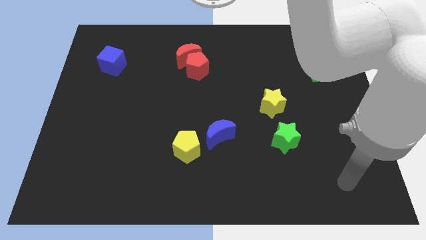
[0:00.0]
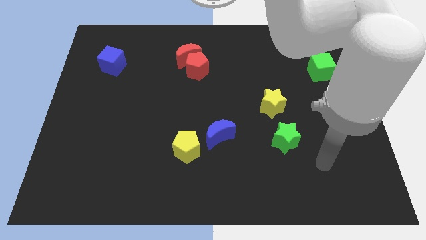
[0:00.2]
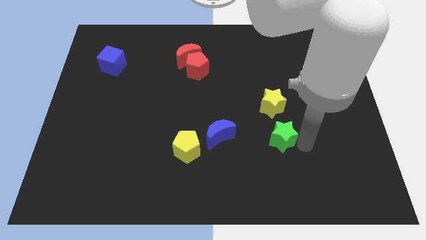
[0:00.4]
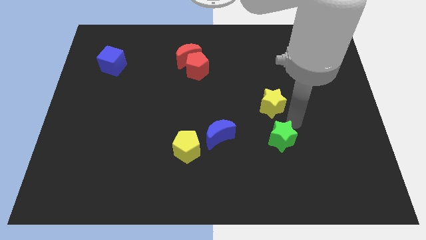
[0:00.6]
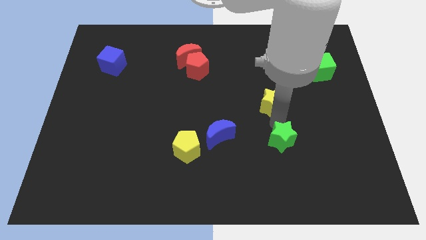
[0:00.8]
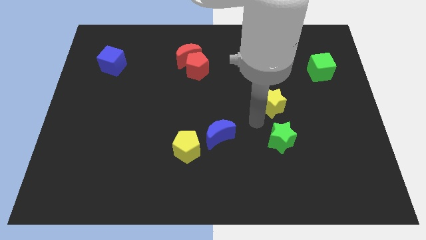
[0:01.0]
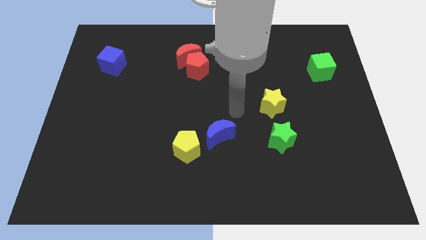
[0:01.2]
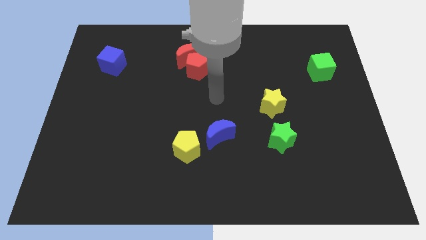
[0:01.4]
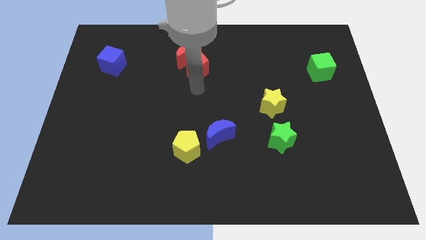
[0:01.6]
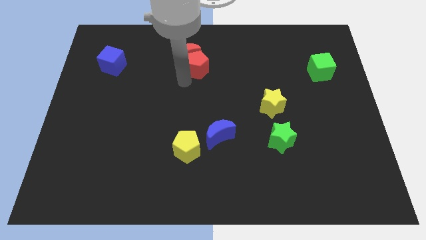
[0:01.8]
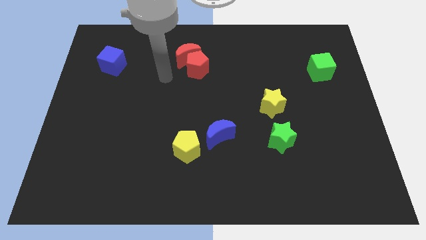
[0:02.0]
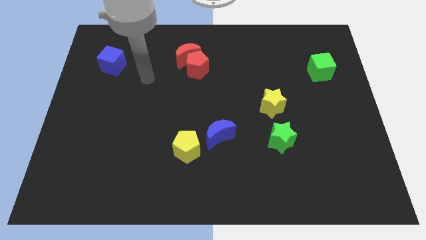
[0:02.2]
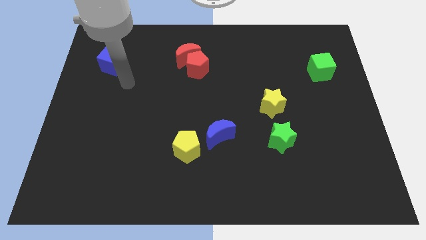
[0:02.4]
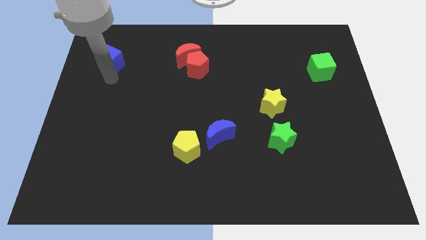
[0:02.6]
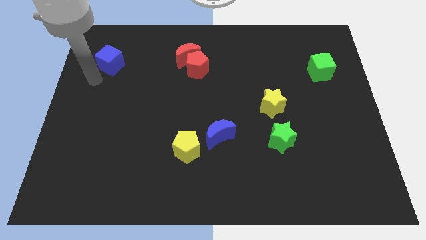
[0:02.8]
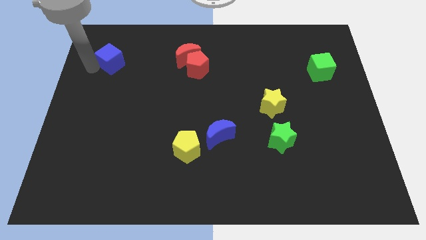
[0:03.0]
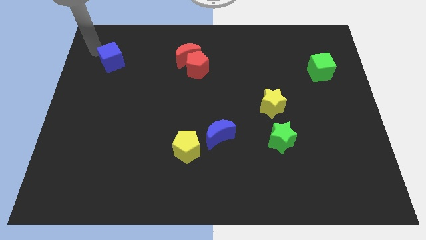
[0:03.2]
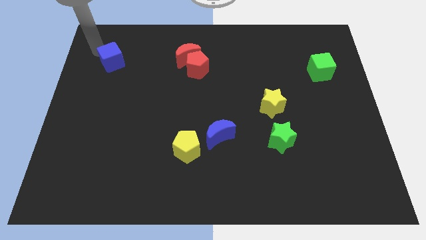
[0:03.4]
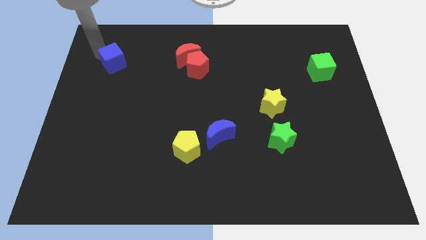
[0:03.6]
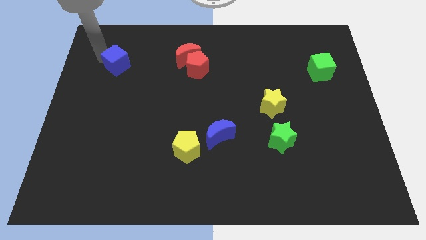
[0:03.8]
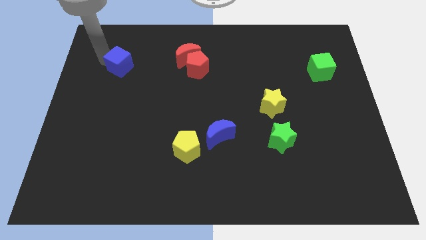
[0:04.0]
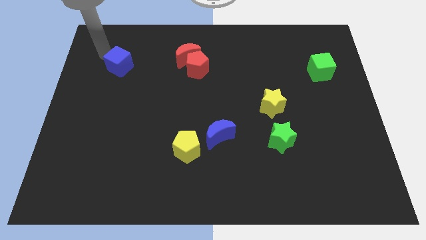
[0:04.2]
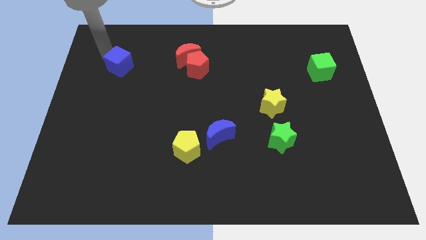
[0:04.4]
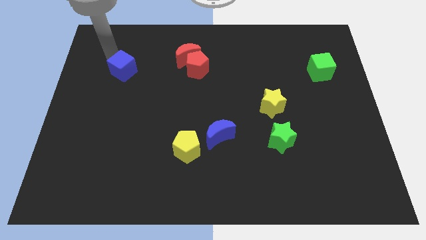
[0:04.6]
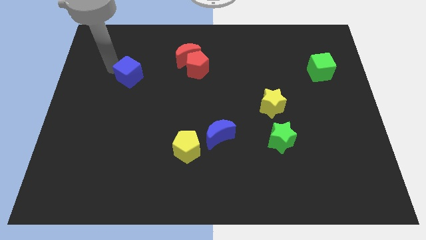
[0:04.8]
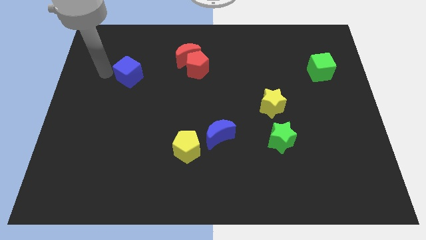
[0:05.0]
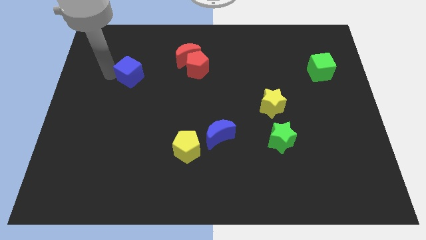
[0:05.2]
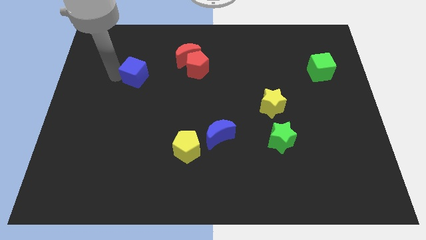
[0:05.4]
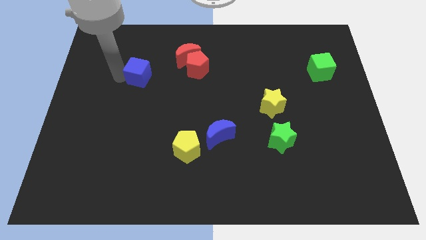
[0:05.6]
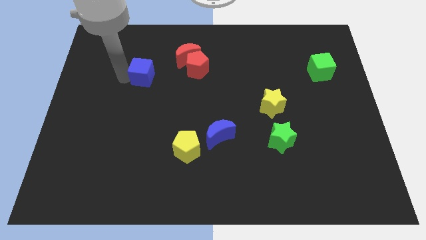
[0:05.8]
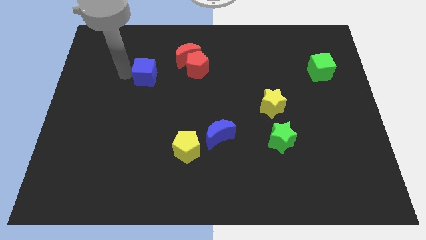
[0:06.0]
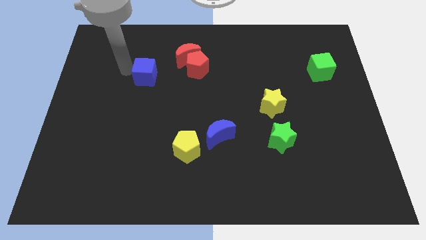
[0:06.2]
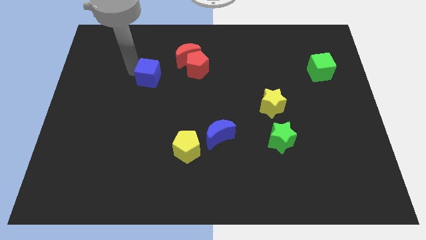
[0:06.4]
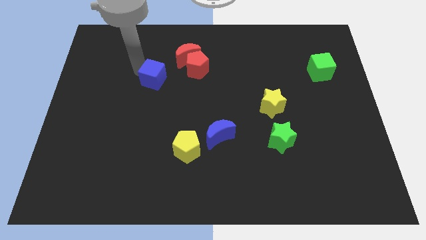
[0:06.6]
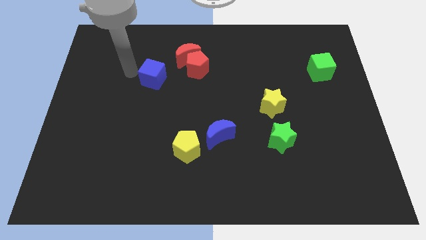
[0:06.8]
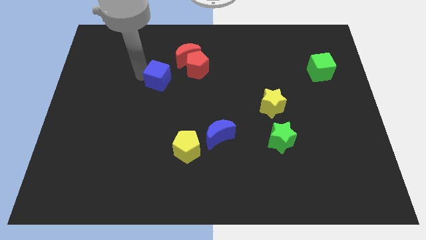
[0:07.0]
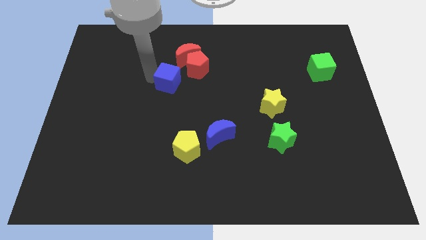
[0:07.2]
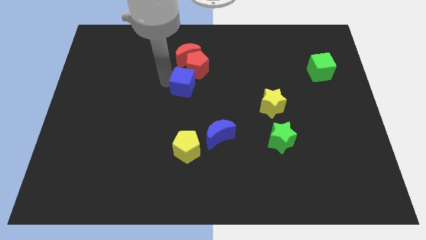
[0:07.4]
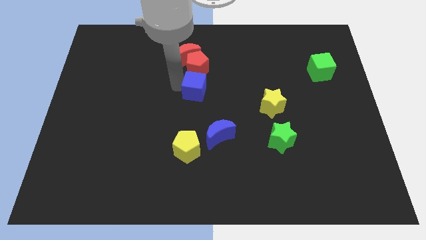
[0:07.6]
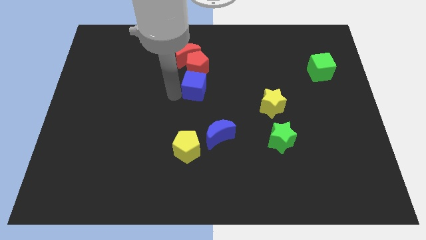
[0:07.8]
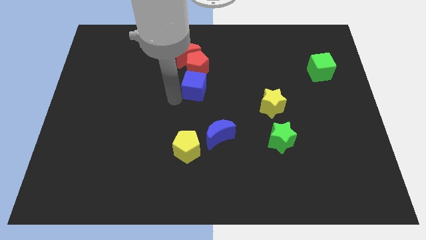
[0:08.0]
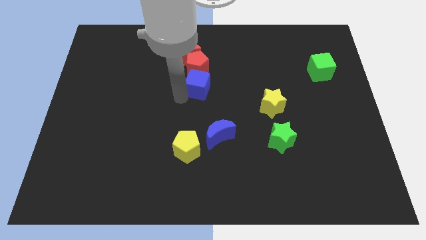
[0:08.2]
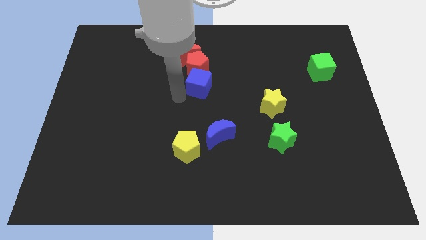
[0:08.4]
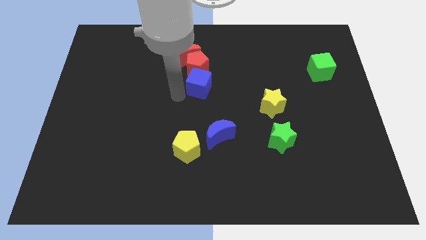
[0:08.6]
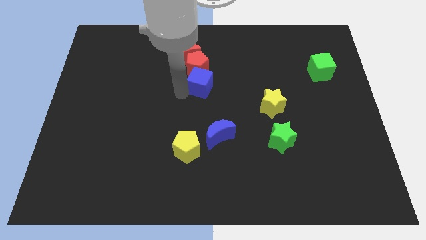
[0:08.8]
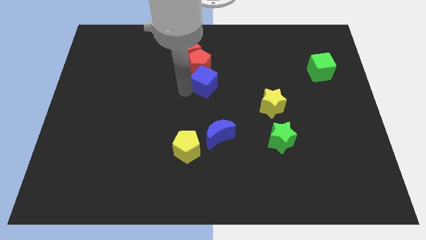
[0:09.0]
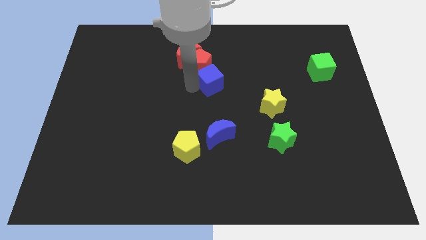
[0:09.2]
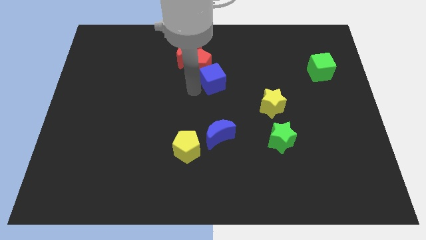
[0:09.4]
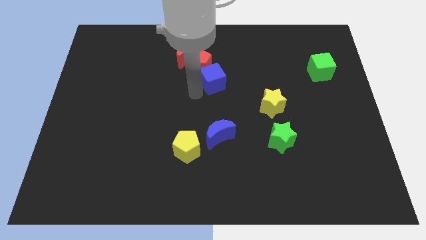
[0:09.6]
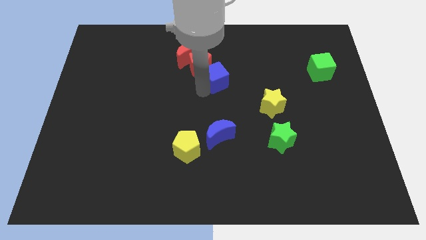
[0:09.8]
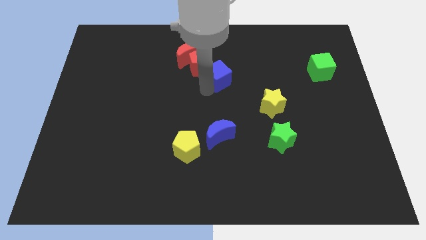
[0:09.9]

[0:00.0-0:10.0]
push the blue cube to the right side of the red pentagon

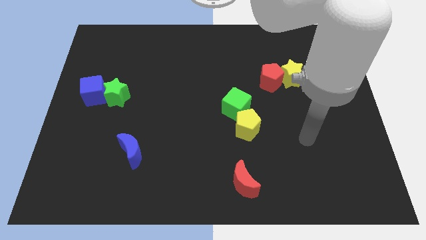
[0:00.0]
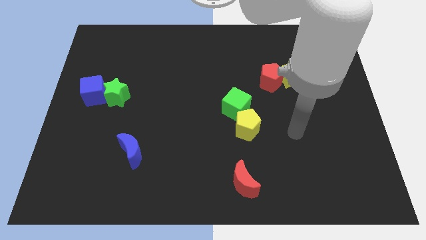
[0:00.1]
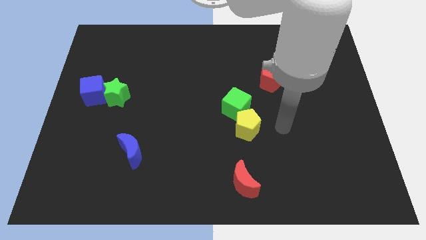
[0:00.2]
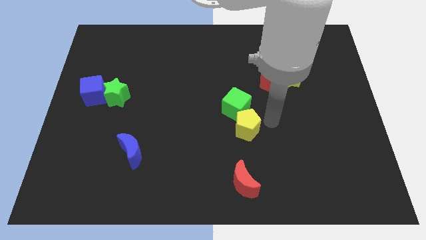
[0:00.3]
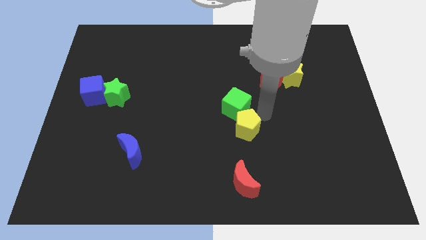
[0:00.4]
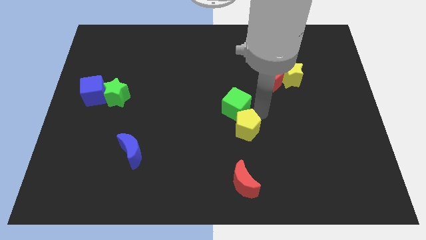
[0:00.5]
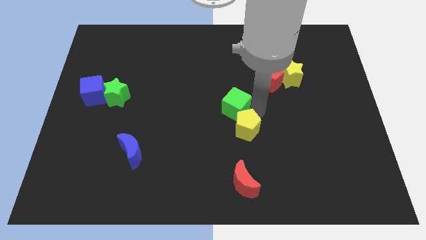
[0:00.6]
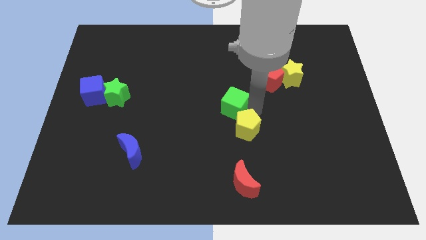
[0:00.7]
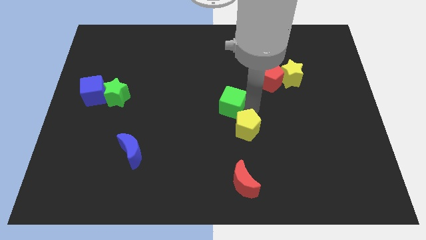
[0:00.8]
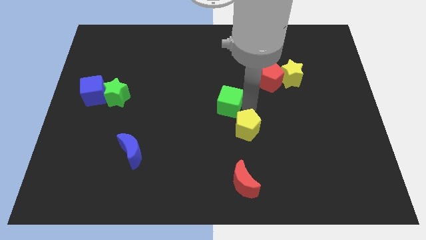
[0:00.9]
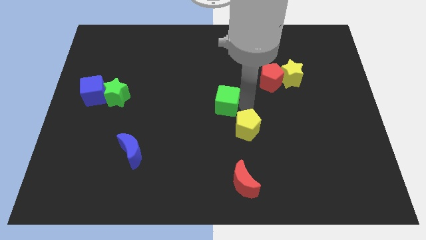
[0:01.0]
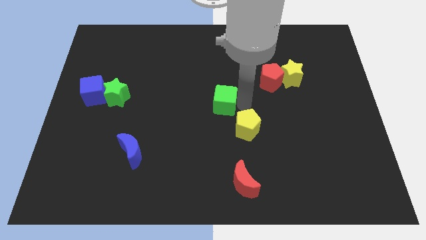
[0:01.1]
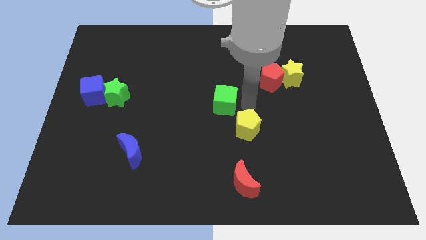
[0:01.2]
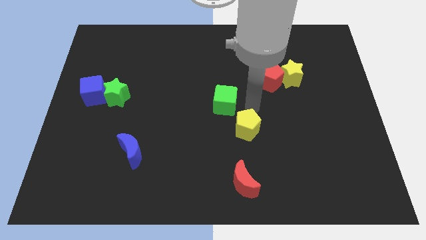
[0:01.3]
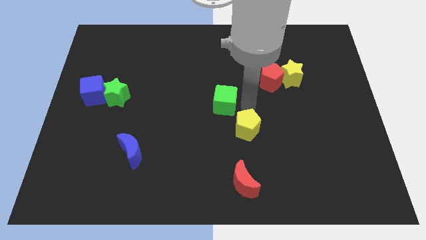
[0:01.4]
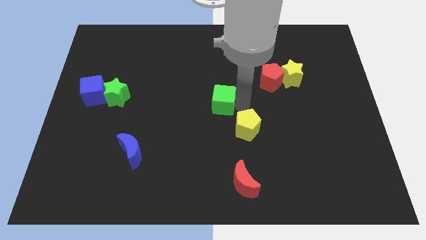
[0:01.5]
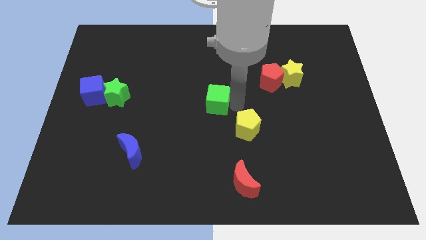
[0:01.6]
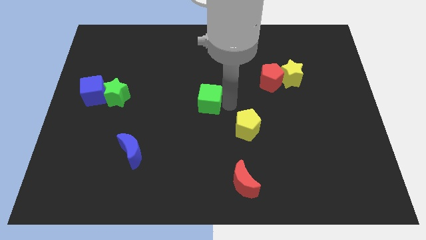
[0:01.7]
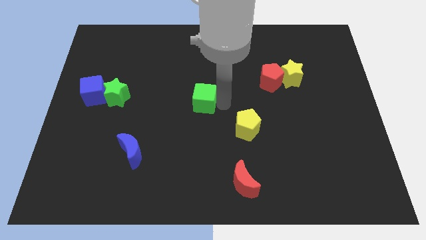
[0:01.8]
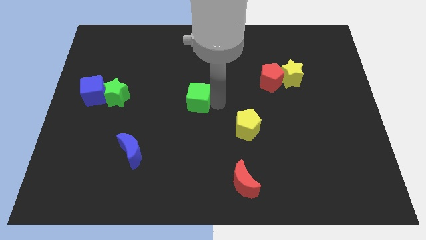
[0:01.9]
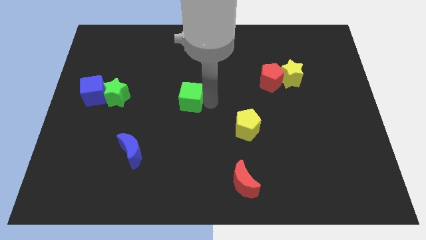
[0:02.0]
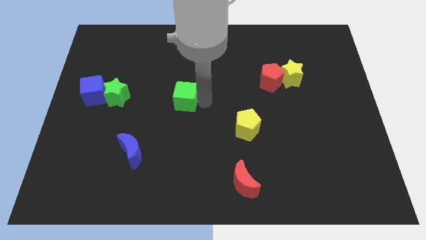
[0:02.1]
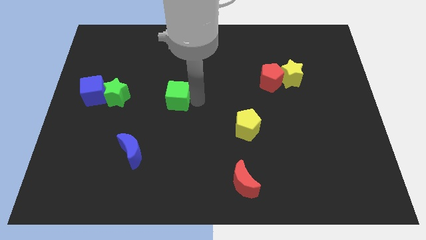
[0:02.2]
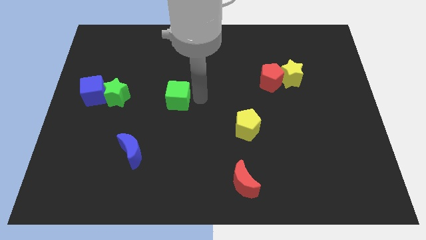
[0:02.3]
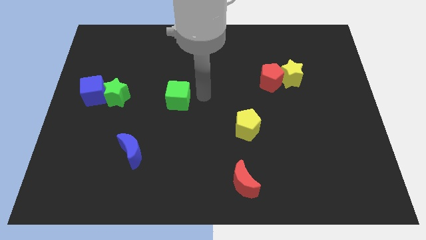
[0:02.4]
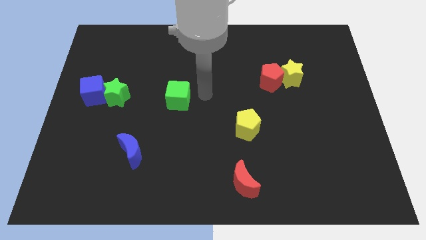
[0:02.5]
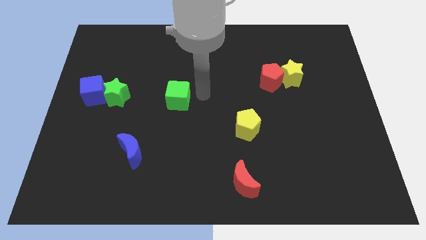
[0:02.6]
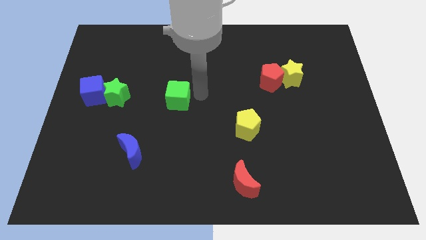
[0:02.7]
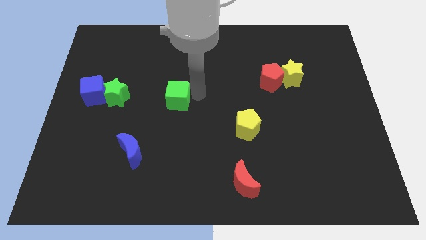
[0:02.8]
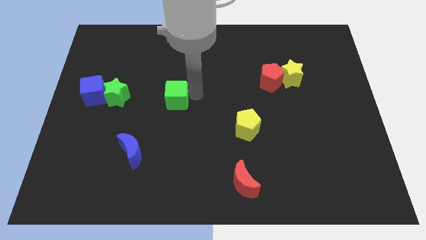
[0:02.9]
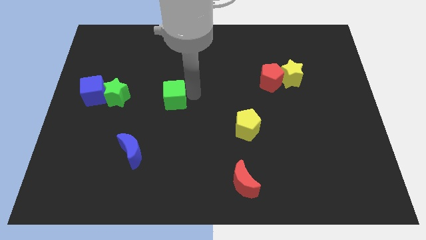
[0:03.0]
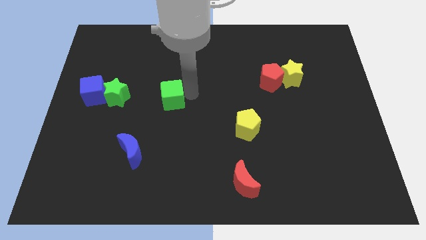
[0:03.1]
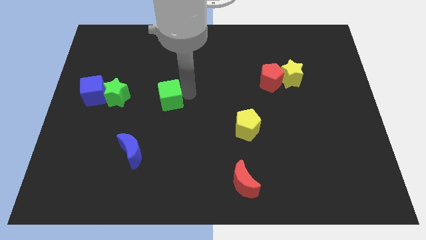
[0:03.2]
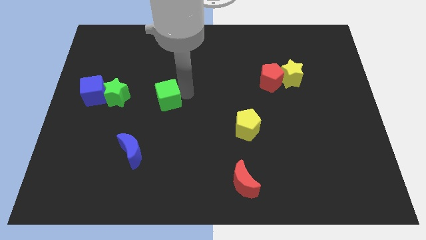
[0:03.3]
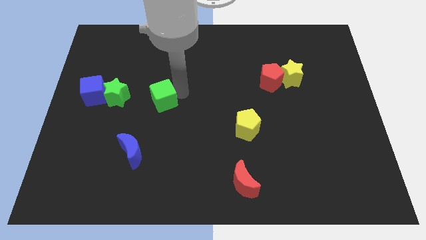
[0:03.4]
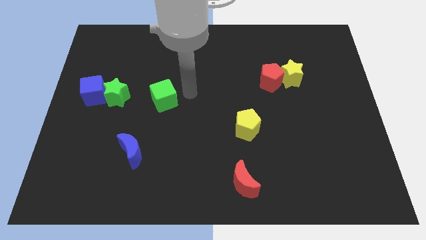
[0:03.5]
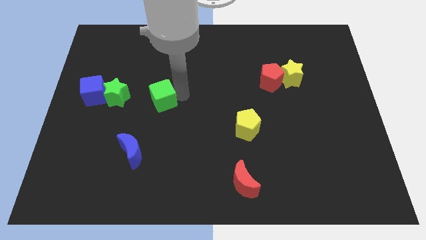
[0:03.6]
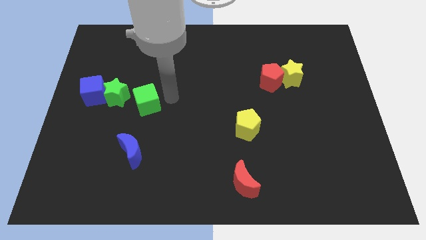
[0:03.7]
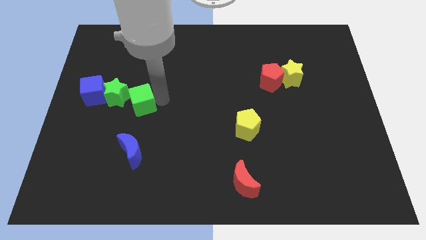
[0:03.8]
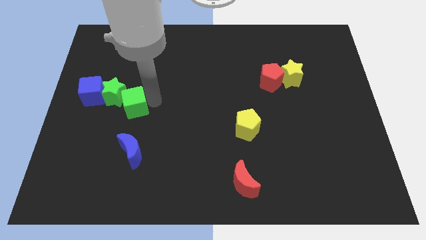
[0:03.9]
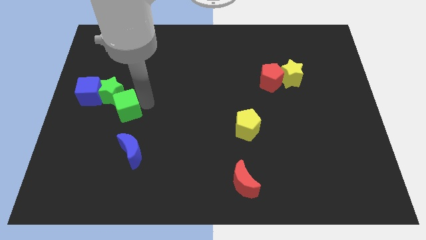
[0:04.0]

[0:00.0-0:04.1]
push the green cube to the bottom right side of the blue cube
